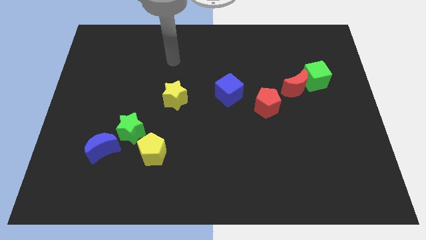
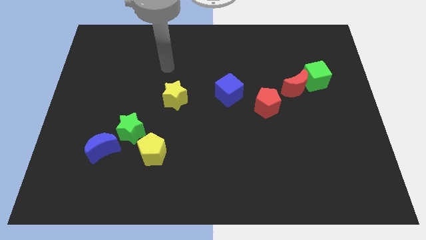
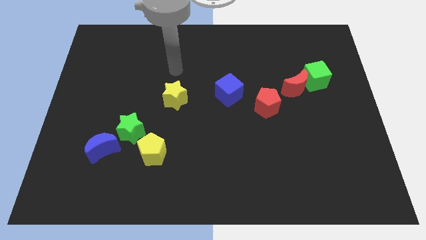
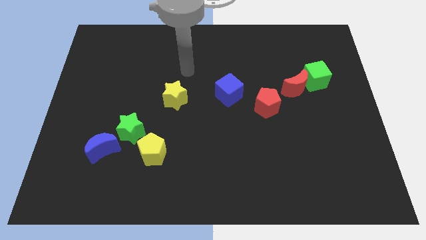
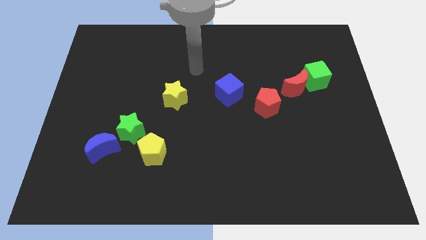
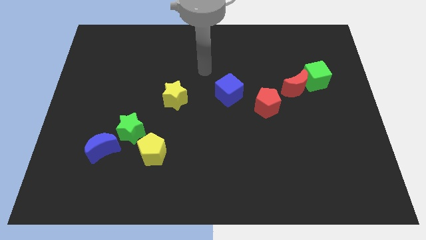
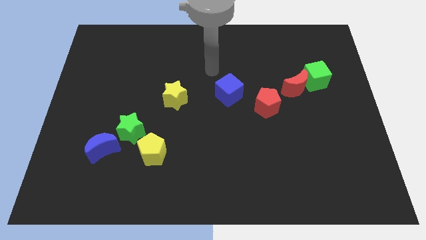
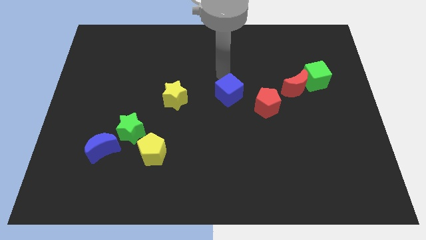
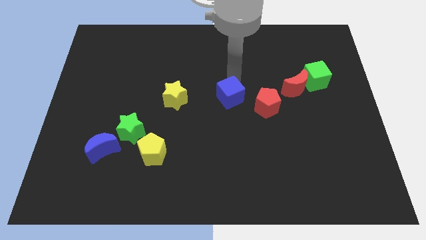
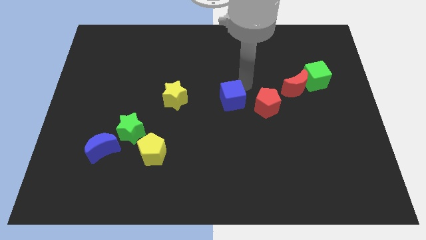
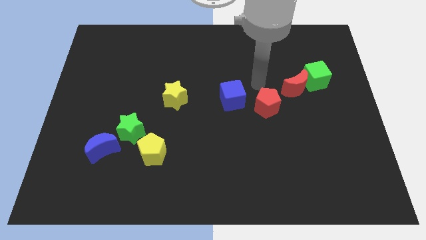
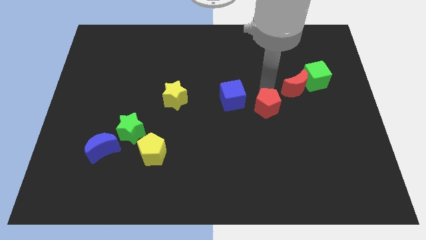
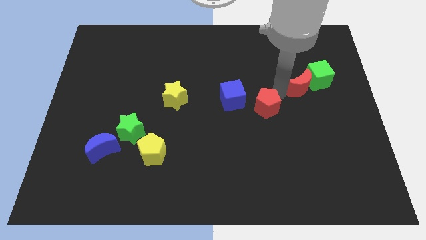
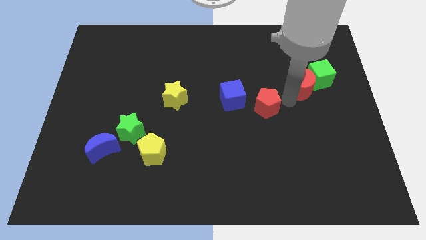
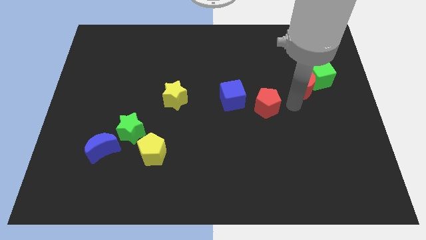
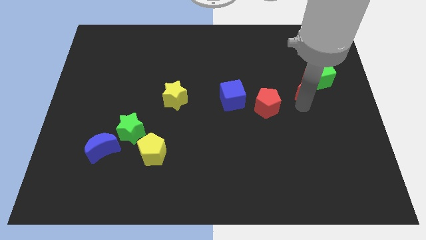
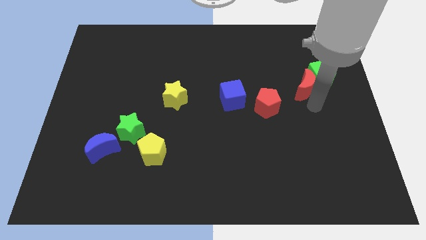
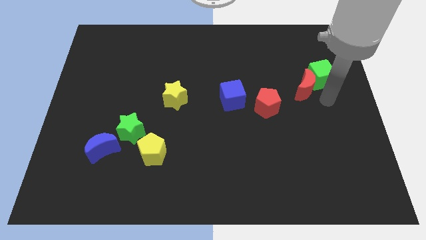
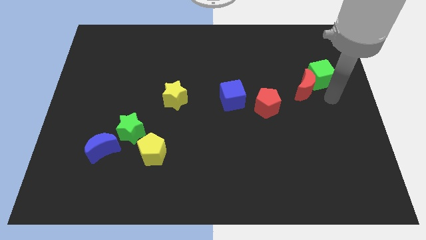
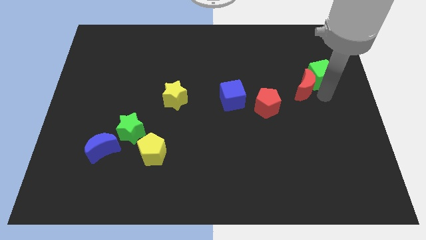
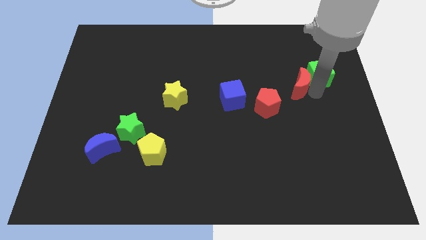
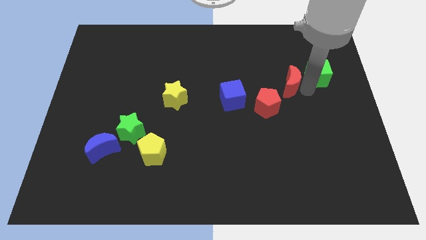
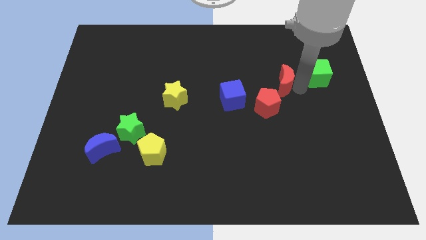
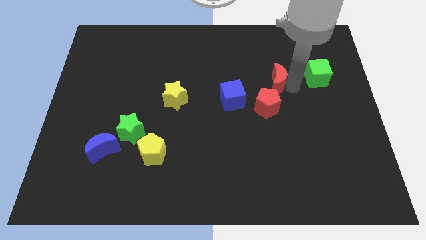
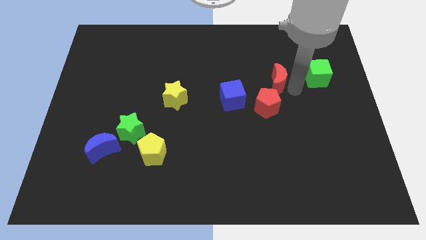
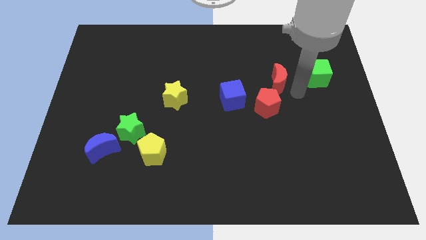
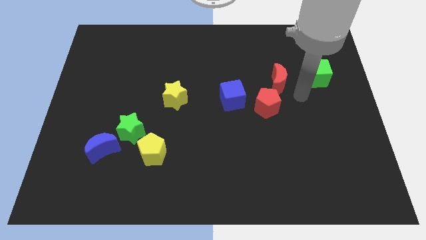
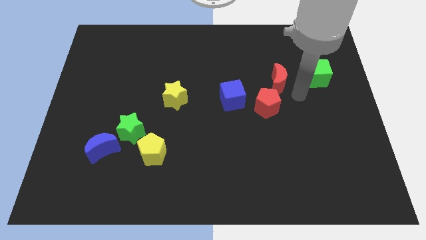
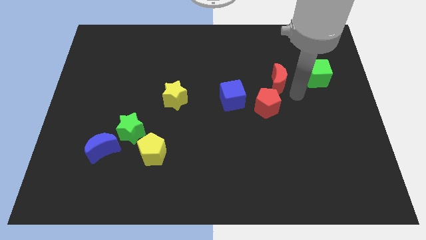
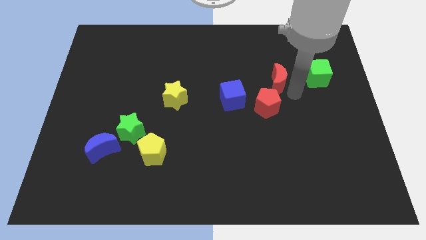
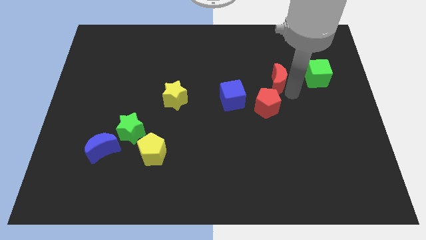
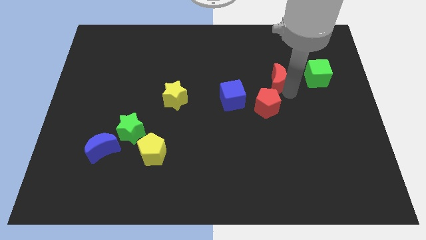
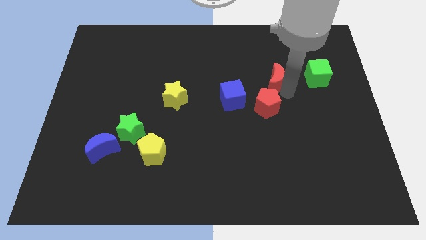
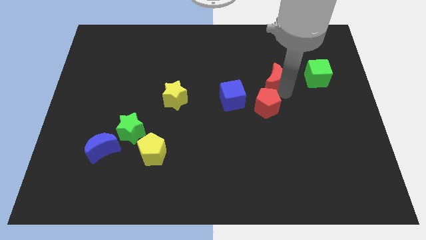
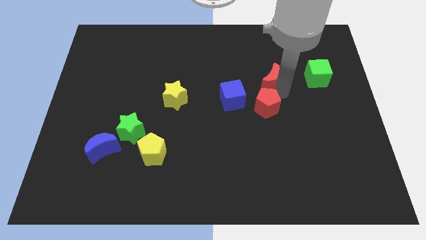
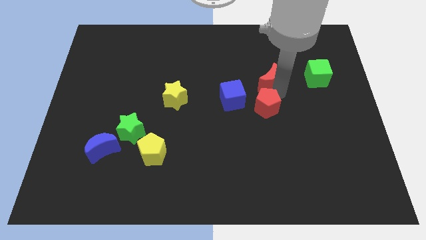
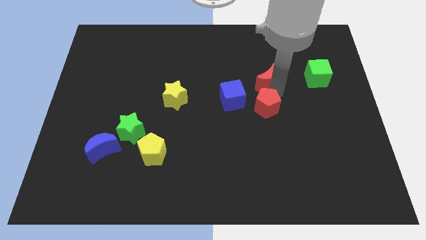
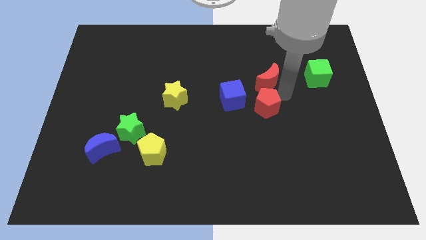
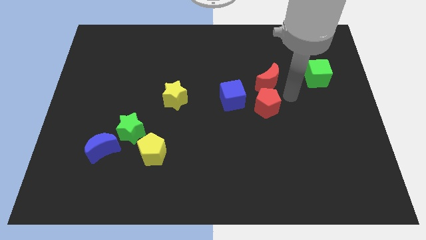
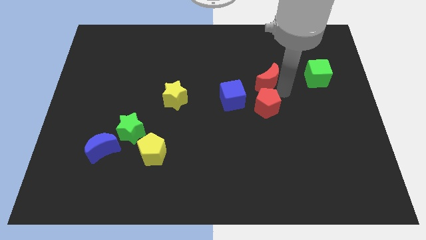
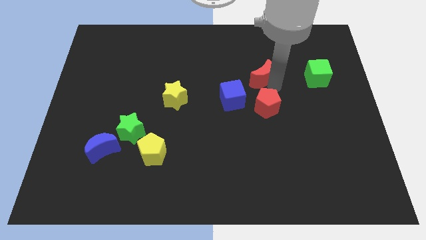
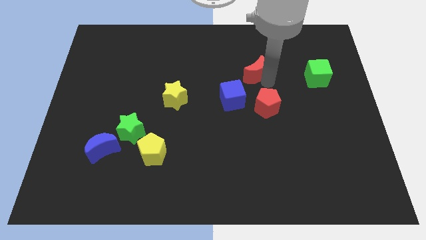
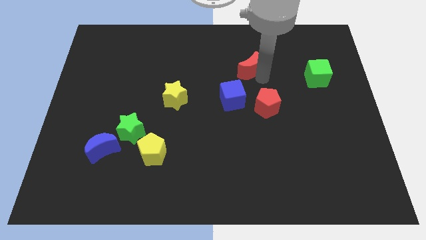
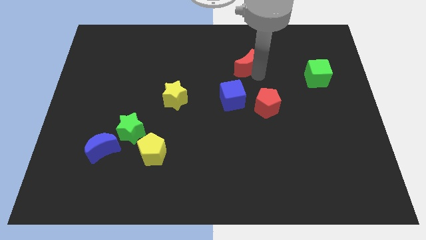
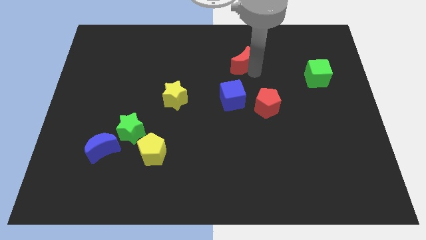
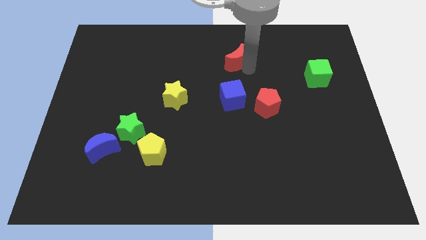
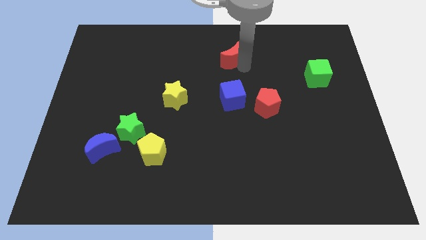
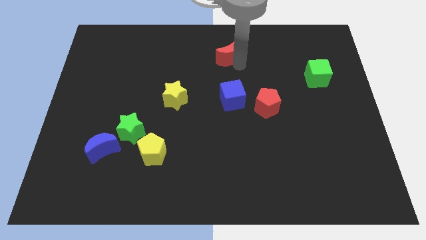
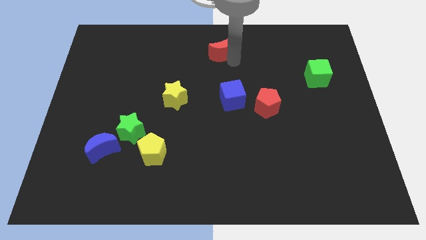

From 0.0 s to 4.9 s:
move the red moon to the top side

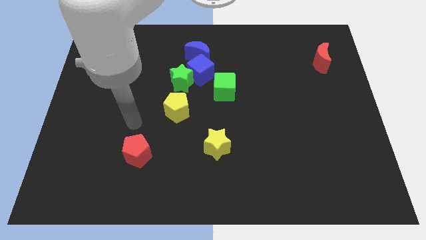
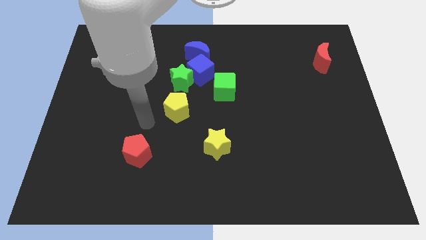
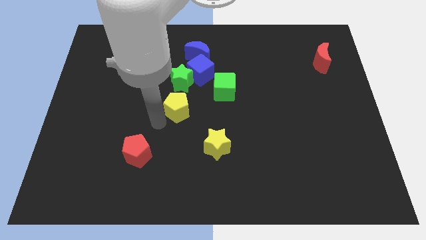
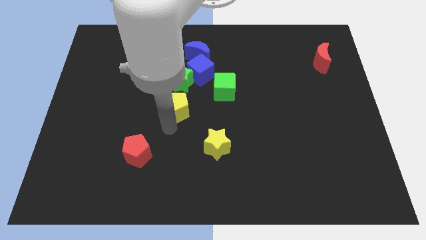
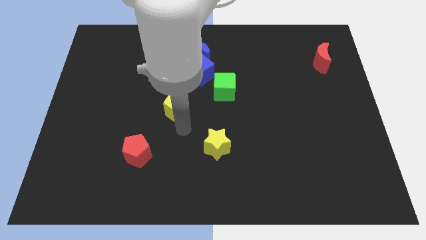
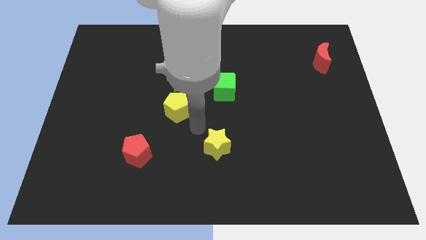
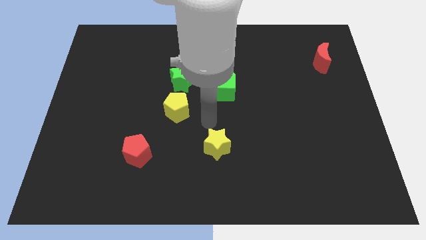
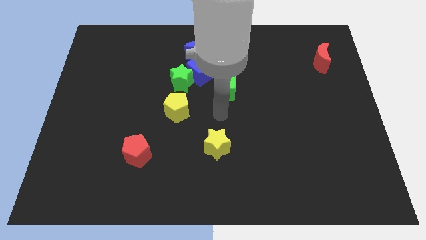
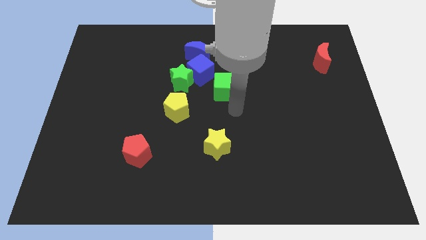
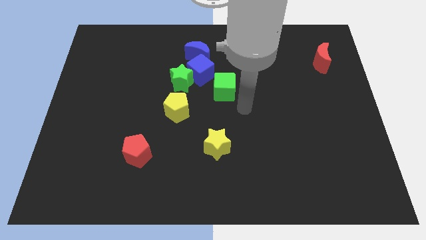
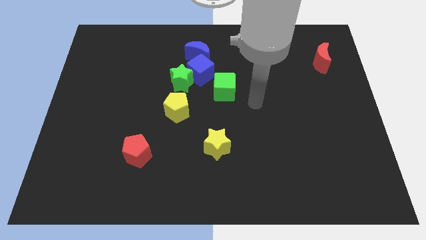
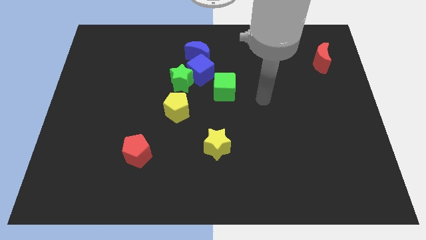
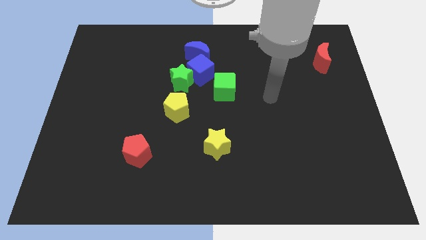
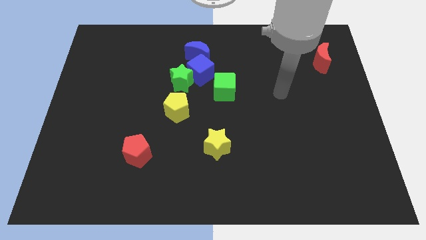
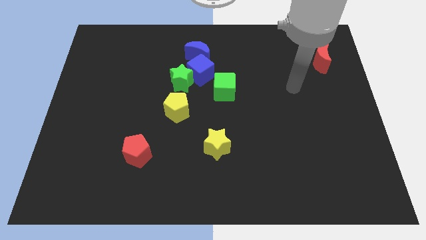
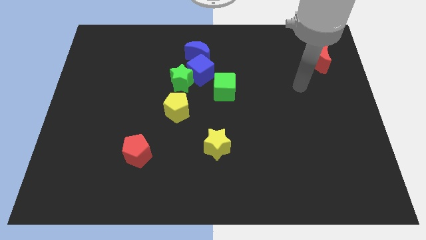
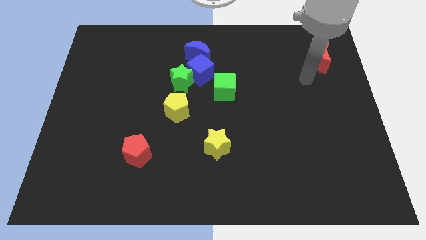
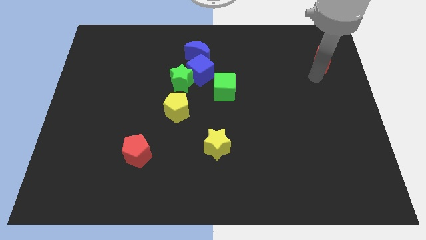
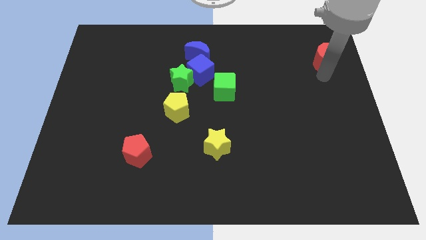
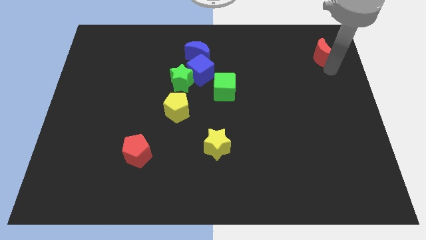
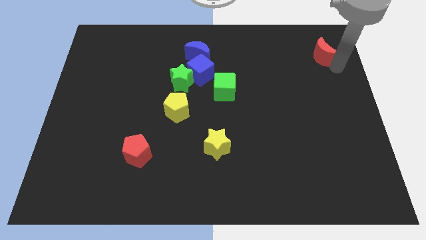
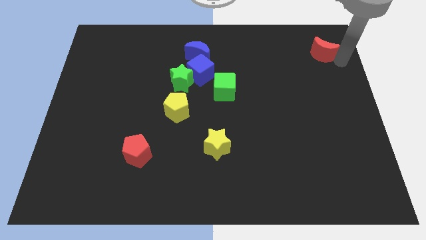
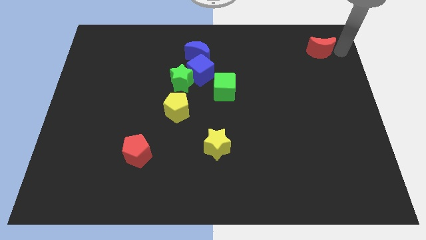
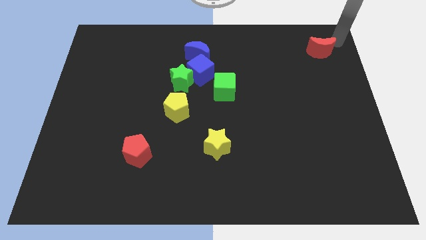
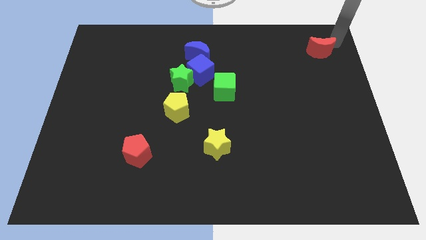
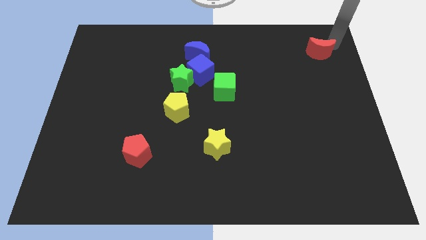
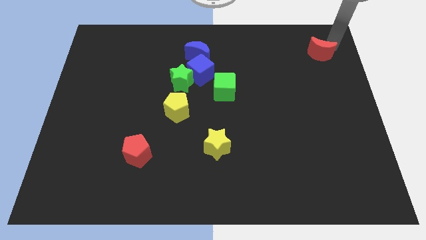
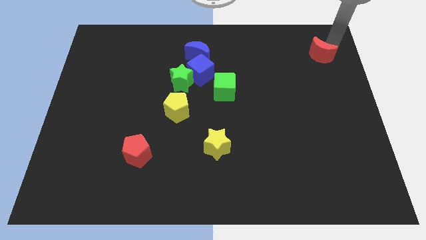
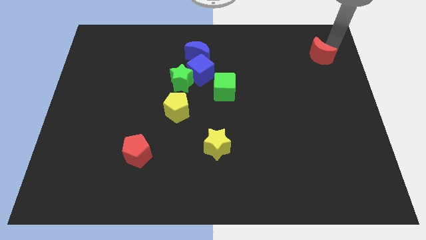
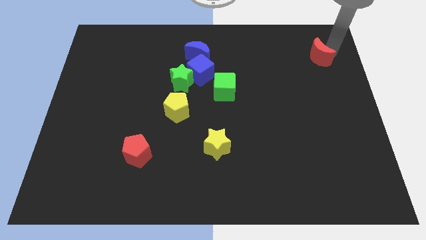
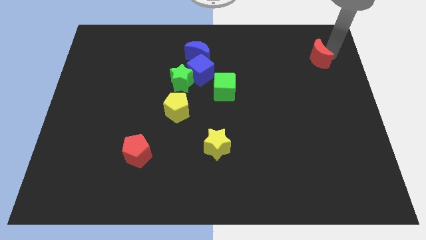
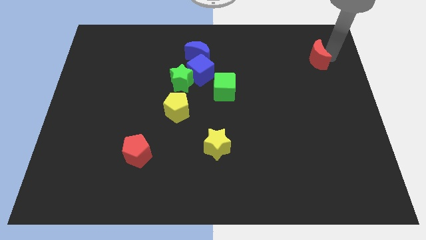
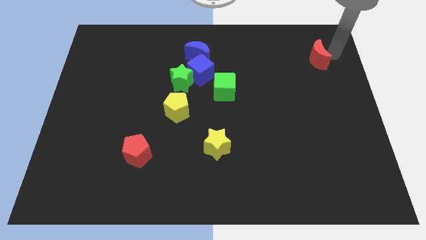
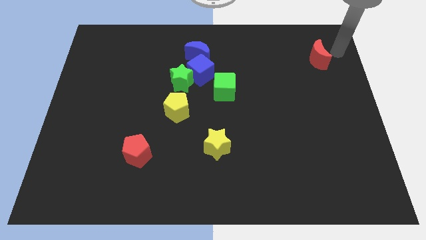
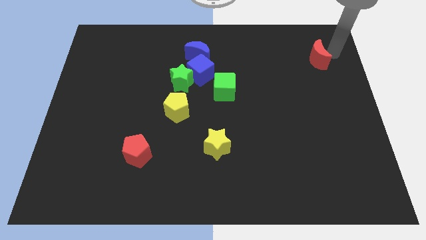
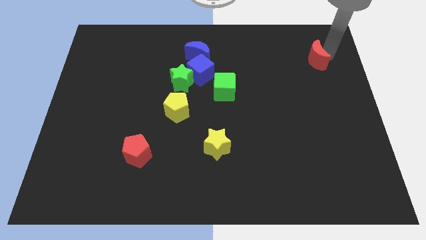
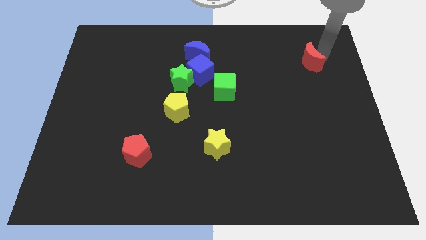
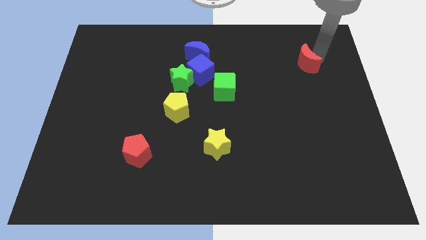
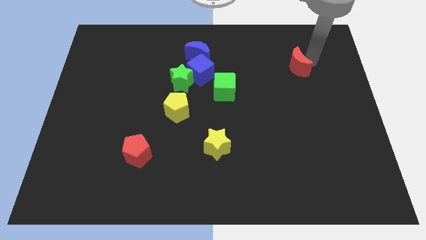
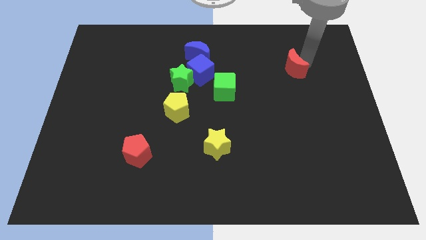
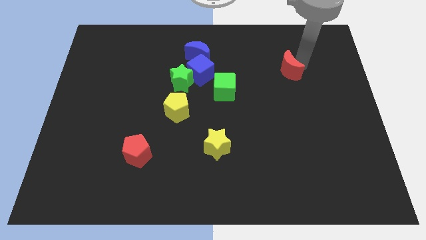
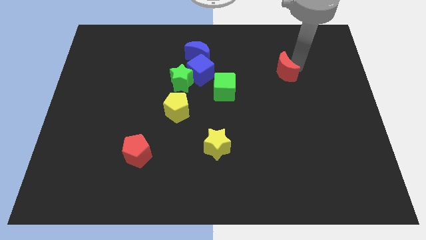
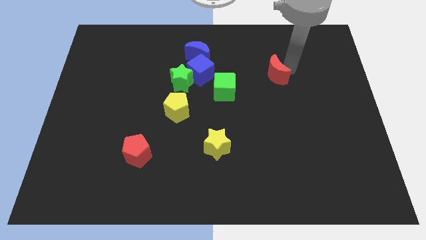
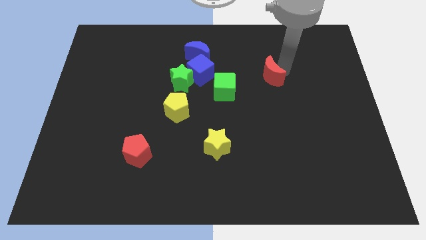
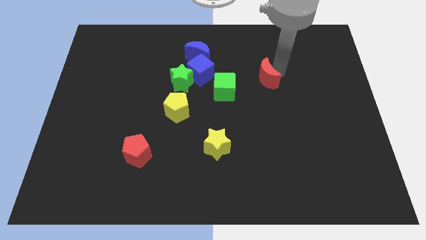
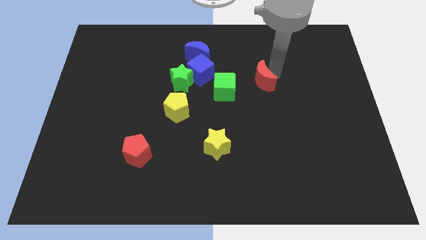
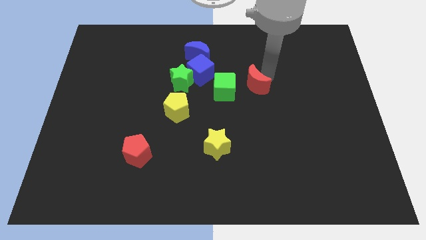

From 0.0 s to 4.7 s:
put the red moon to the center
